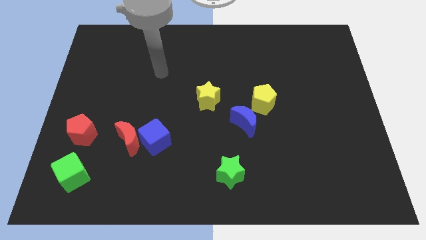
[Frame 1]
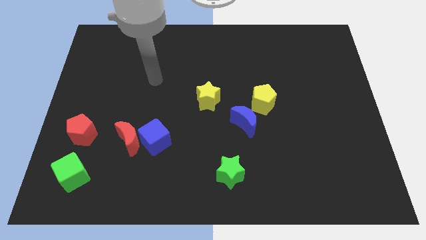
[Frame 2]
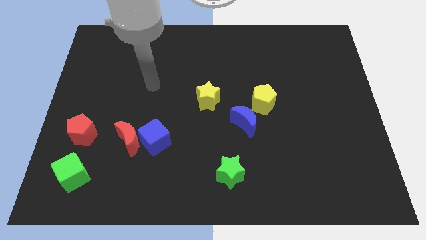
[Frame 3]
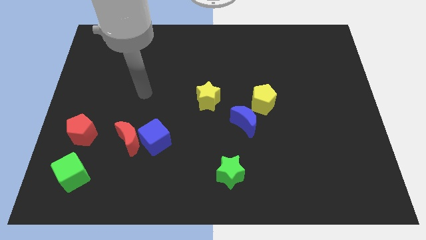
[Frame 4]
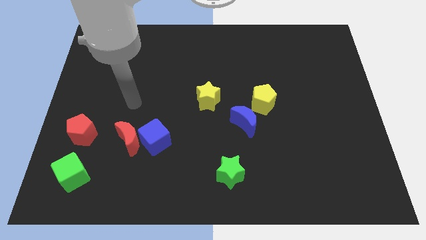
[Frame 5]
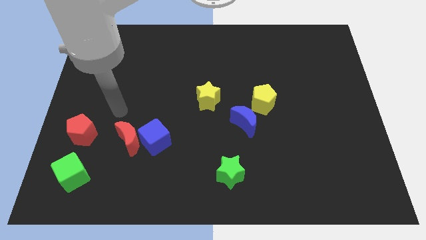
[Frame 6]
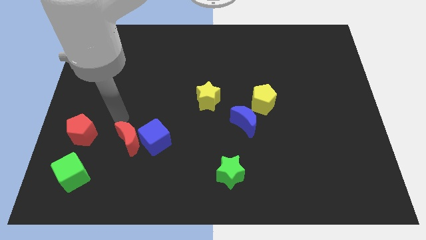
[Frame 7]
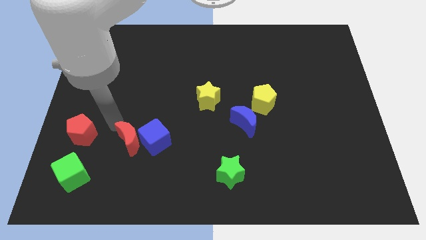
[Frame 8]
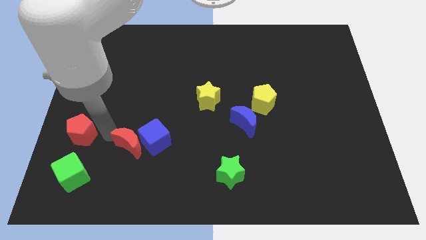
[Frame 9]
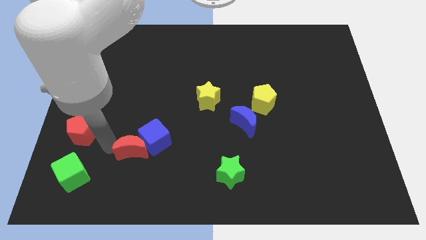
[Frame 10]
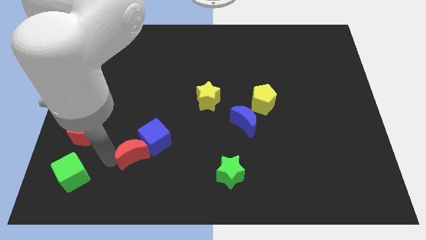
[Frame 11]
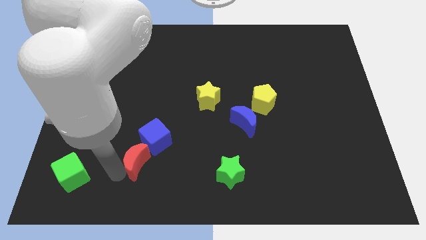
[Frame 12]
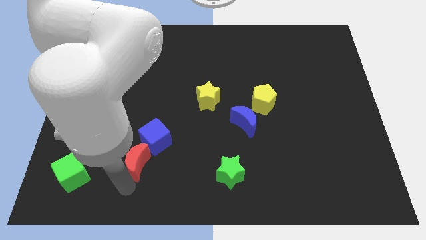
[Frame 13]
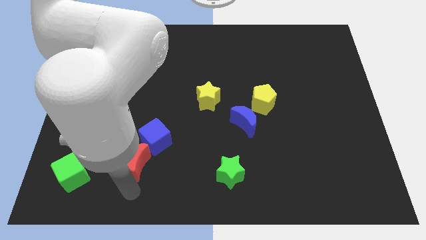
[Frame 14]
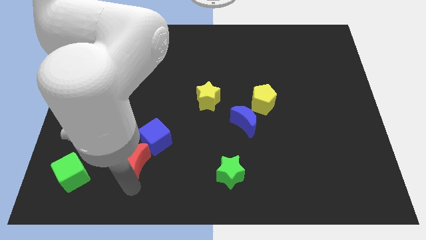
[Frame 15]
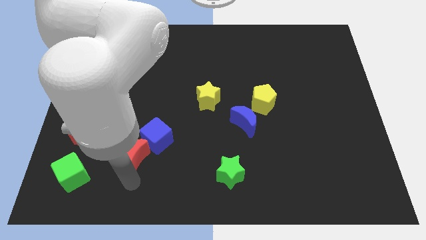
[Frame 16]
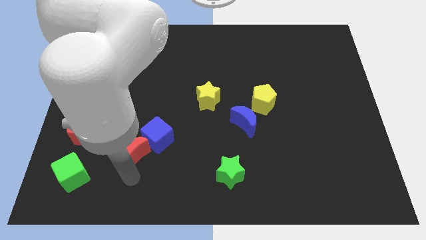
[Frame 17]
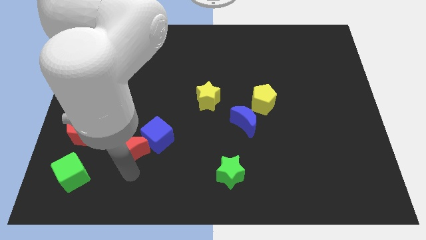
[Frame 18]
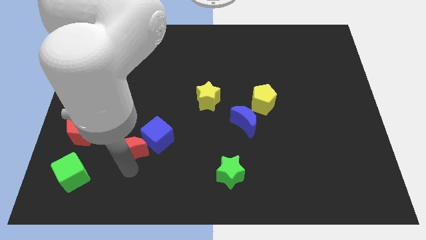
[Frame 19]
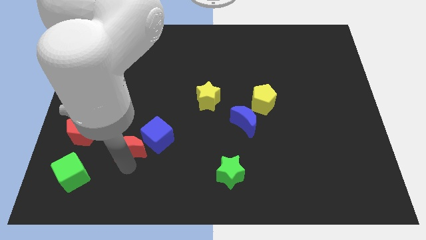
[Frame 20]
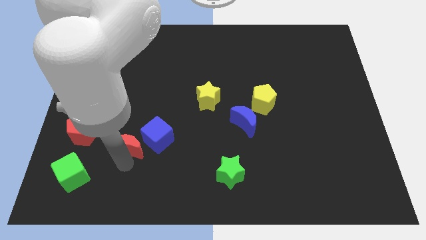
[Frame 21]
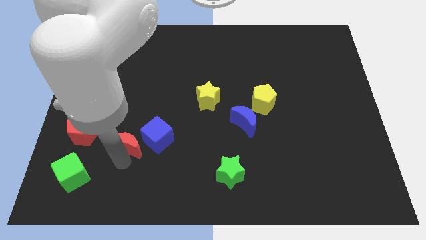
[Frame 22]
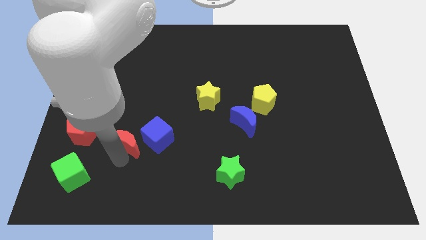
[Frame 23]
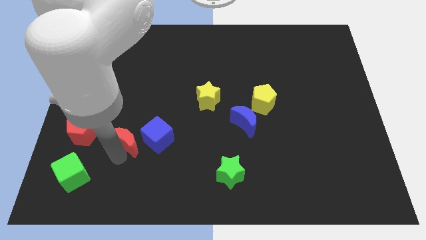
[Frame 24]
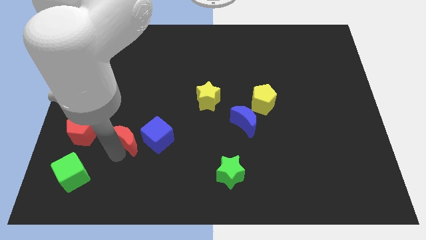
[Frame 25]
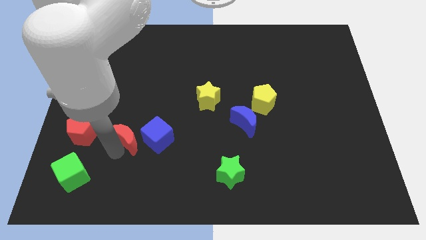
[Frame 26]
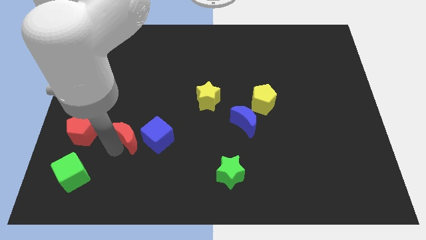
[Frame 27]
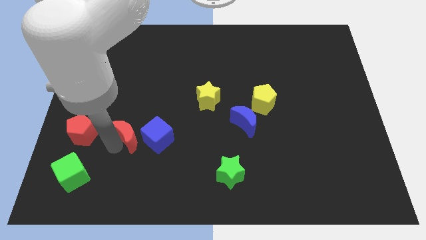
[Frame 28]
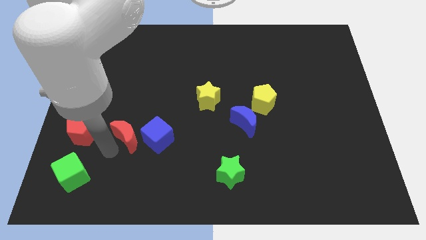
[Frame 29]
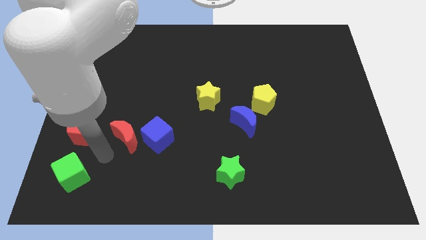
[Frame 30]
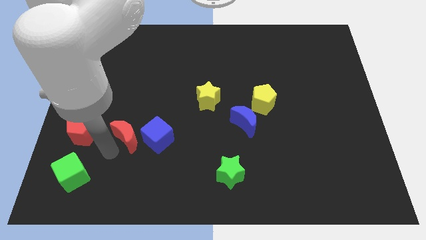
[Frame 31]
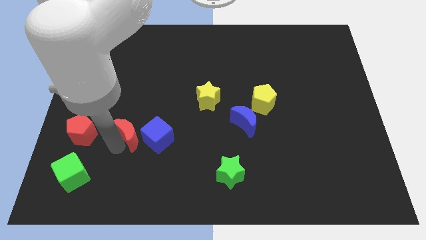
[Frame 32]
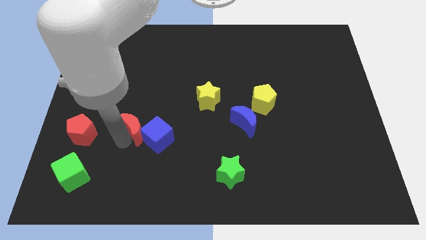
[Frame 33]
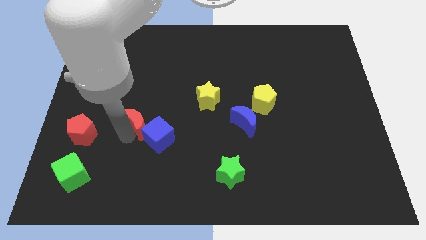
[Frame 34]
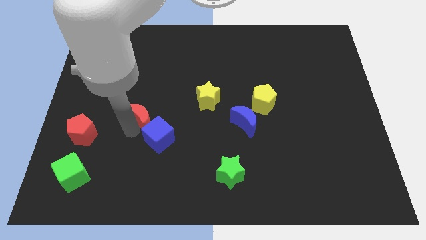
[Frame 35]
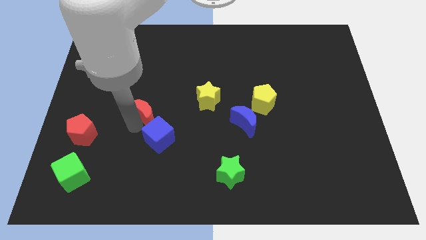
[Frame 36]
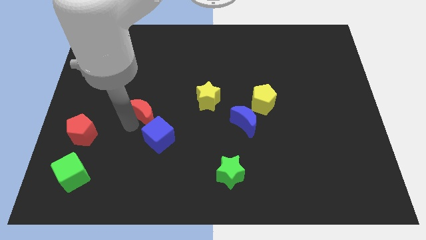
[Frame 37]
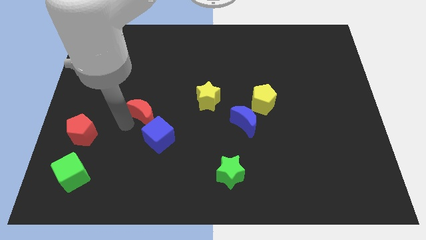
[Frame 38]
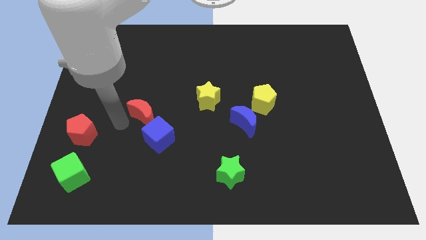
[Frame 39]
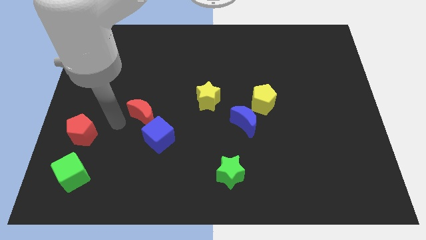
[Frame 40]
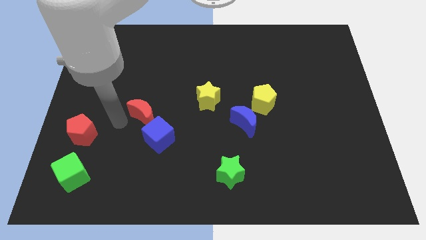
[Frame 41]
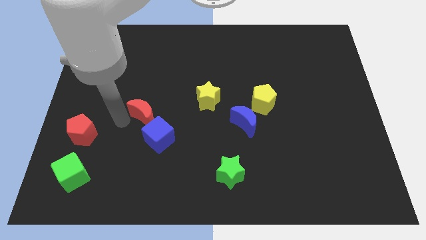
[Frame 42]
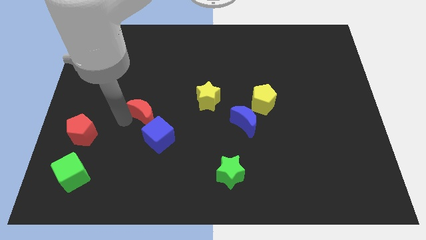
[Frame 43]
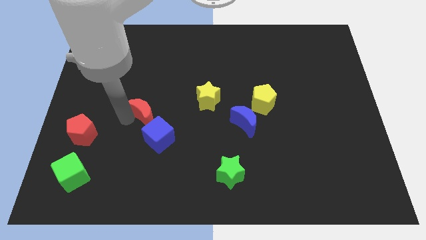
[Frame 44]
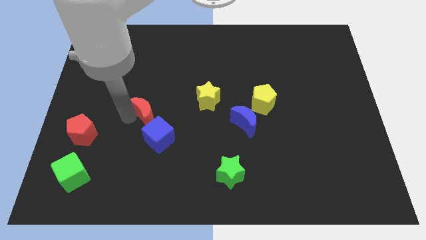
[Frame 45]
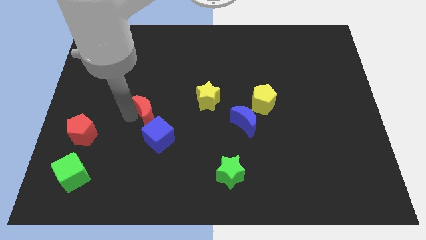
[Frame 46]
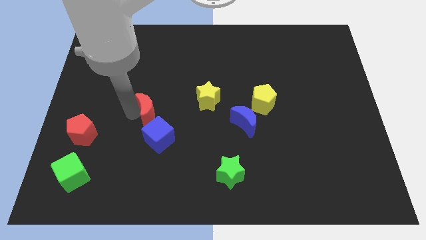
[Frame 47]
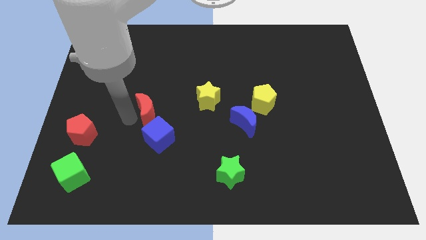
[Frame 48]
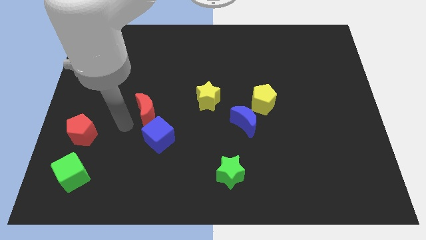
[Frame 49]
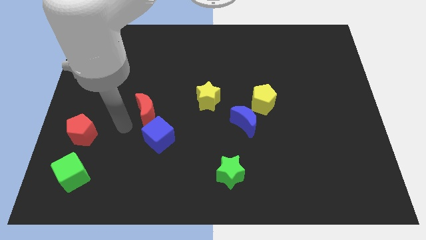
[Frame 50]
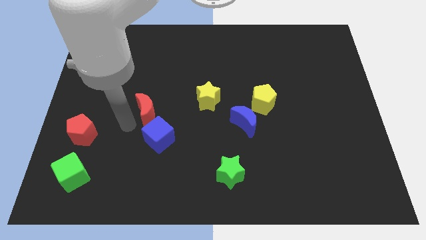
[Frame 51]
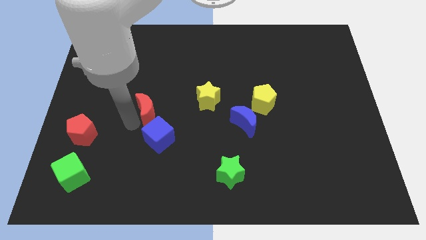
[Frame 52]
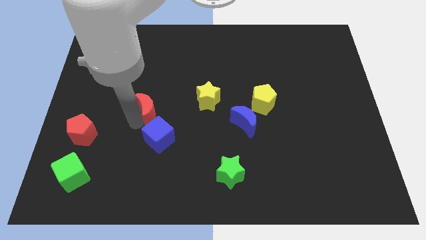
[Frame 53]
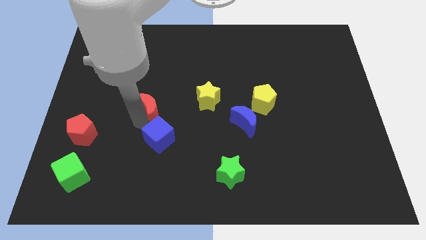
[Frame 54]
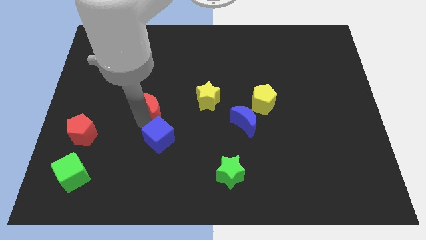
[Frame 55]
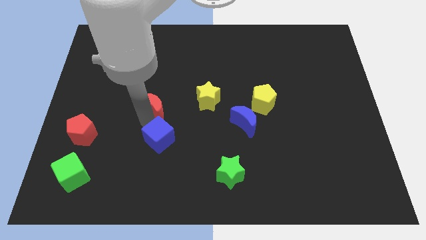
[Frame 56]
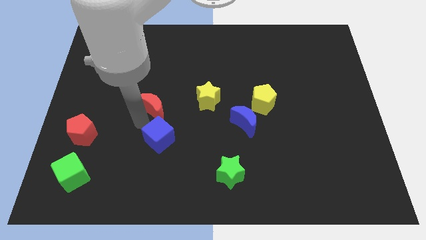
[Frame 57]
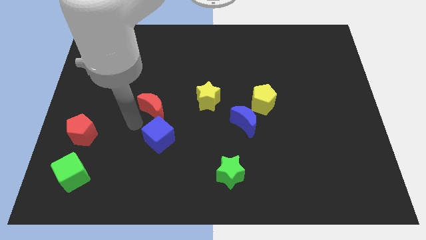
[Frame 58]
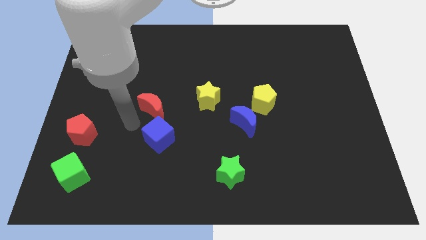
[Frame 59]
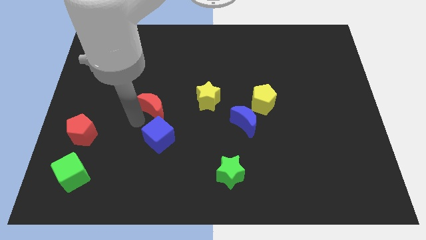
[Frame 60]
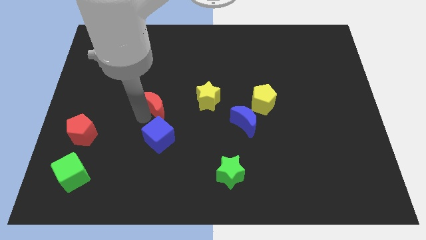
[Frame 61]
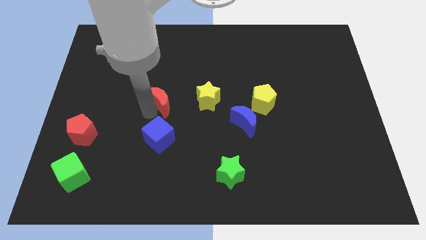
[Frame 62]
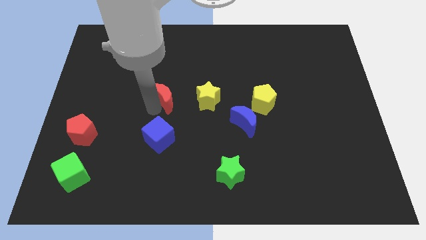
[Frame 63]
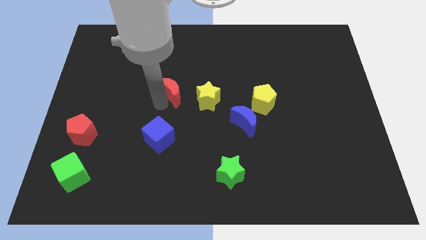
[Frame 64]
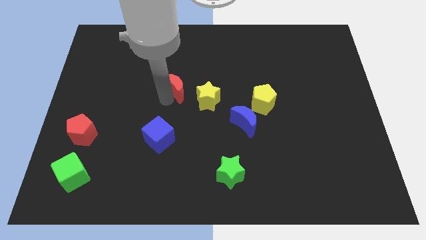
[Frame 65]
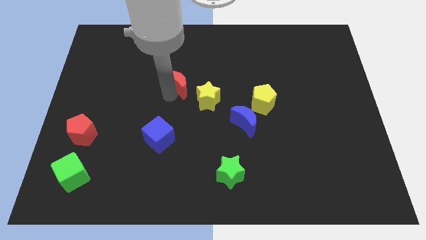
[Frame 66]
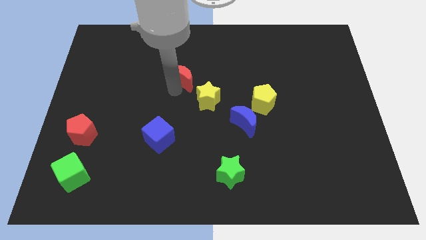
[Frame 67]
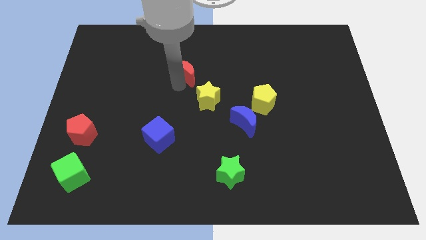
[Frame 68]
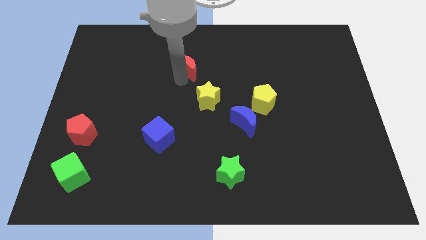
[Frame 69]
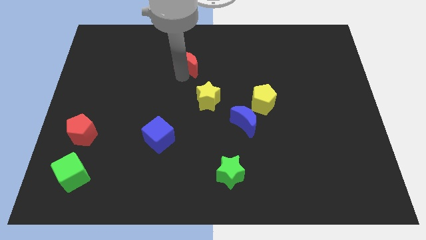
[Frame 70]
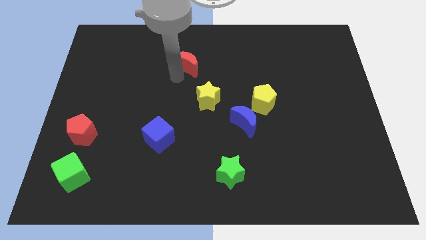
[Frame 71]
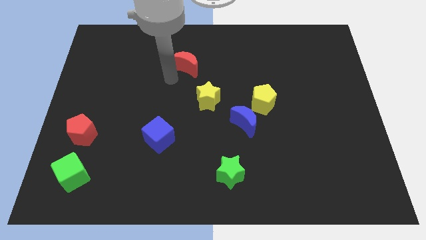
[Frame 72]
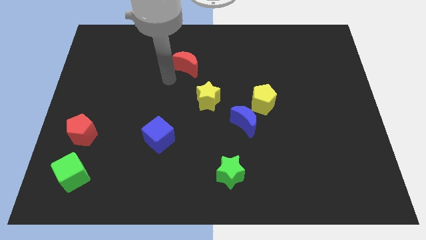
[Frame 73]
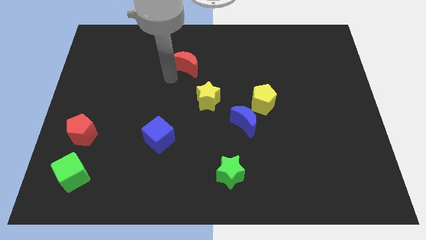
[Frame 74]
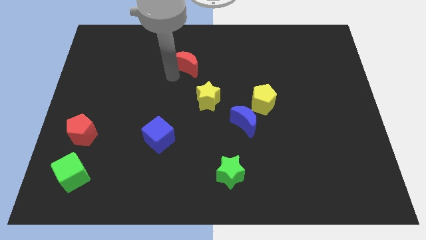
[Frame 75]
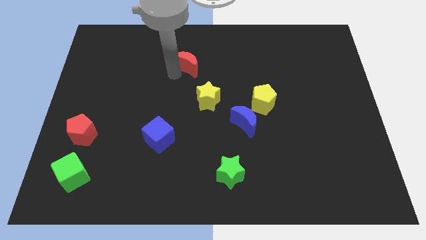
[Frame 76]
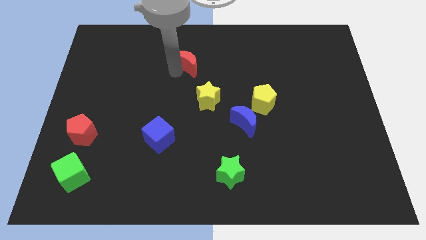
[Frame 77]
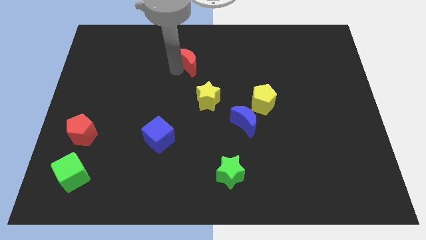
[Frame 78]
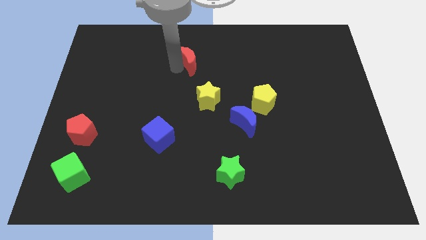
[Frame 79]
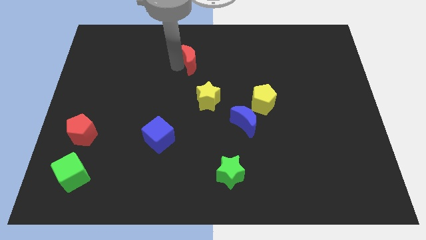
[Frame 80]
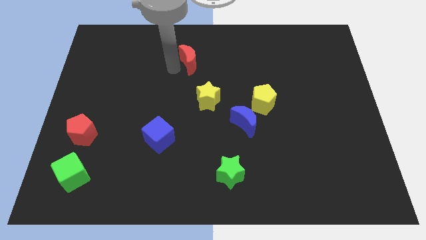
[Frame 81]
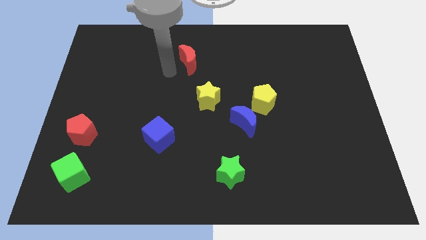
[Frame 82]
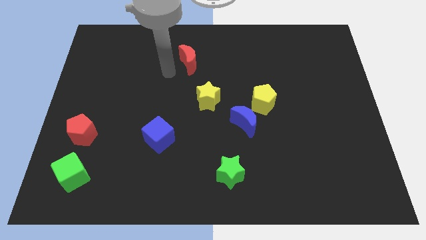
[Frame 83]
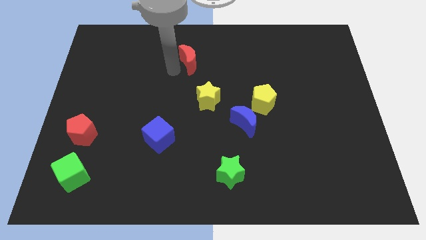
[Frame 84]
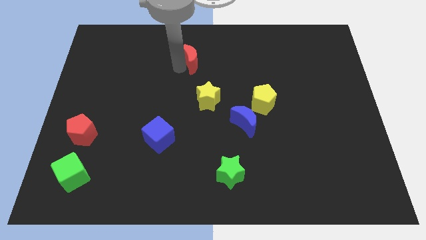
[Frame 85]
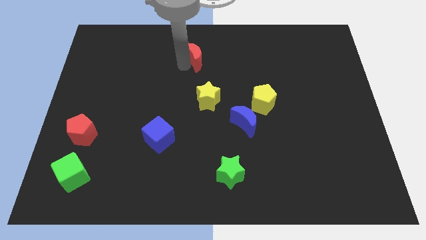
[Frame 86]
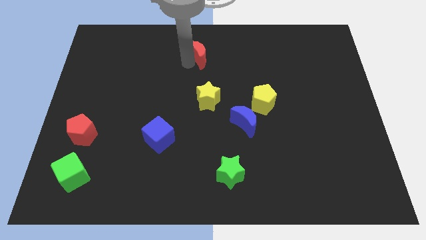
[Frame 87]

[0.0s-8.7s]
move the red moon to the top
